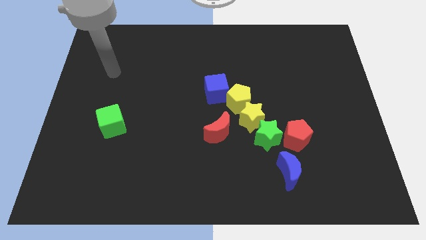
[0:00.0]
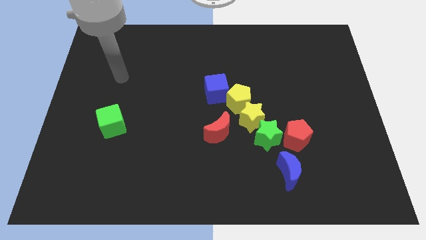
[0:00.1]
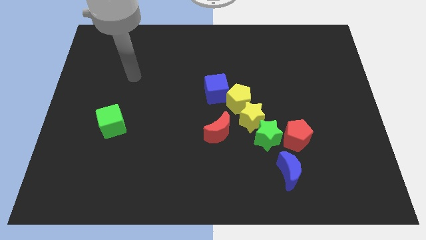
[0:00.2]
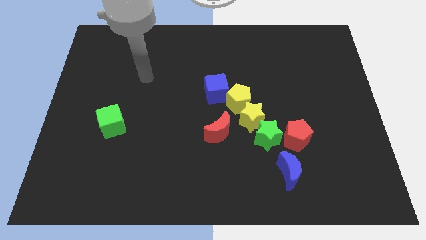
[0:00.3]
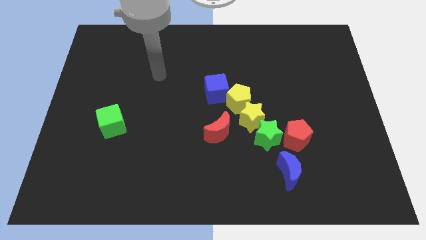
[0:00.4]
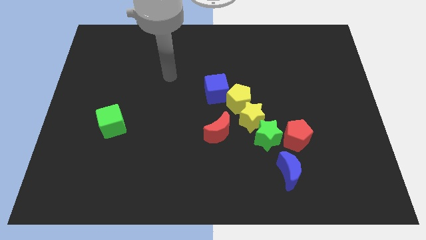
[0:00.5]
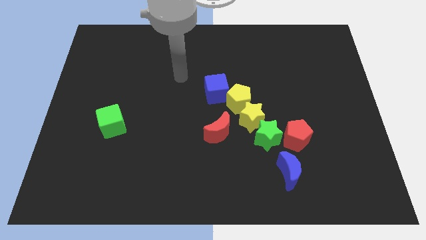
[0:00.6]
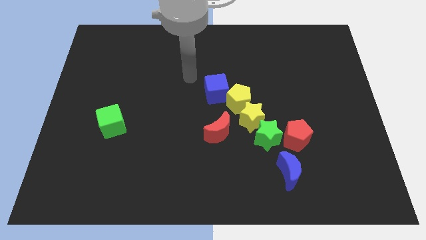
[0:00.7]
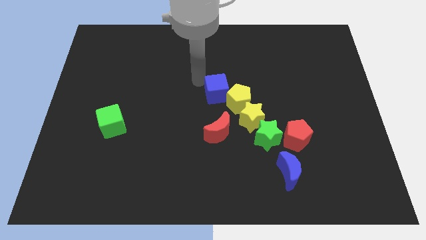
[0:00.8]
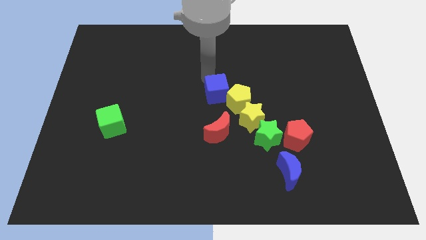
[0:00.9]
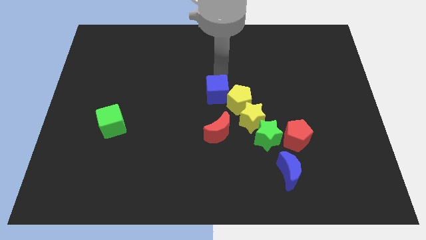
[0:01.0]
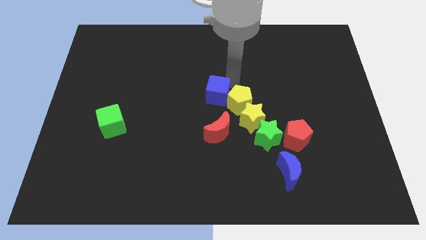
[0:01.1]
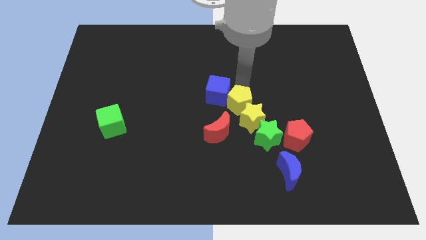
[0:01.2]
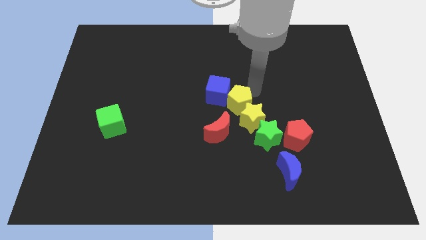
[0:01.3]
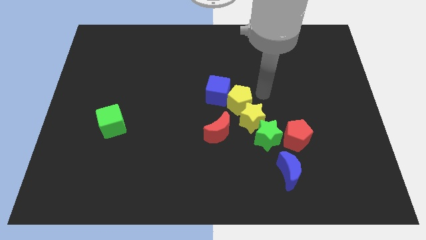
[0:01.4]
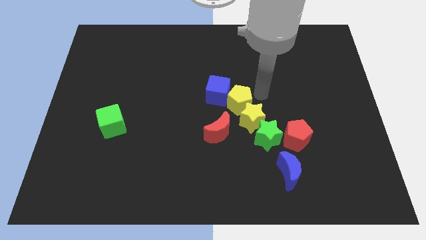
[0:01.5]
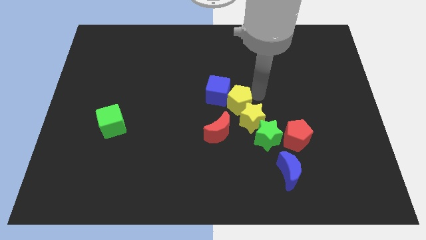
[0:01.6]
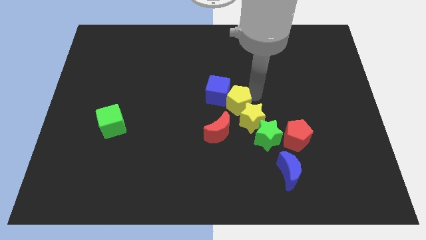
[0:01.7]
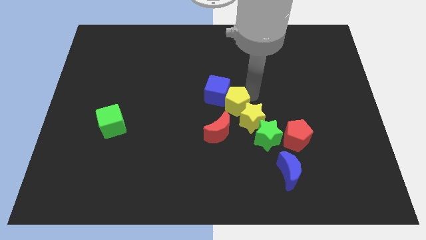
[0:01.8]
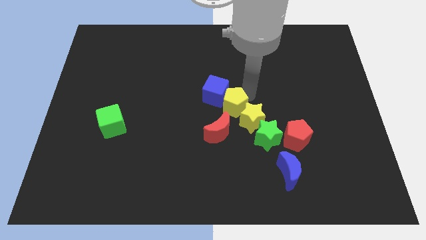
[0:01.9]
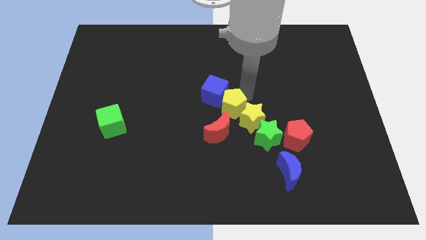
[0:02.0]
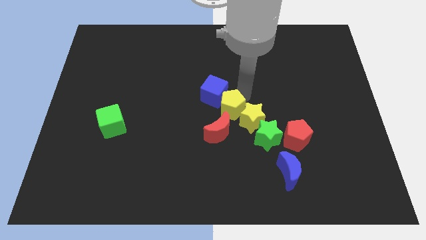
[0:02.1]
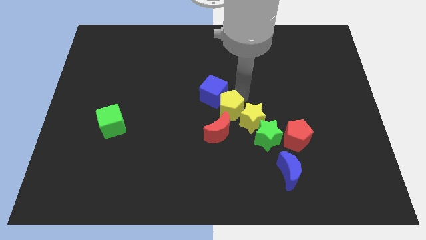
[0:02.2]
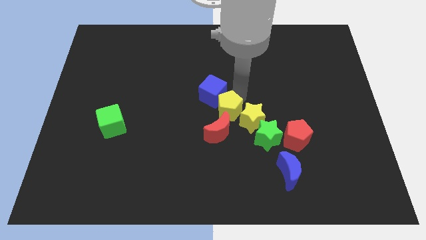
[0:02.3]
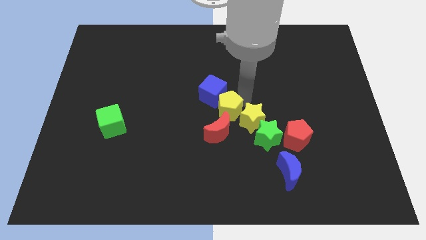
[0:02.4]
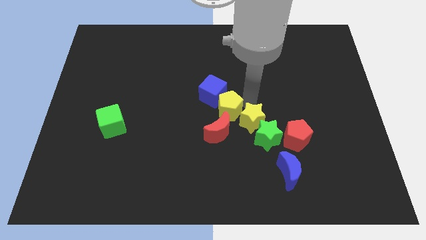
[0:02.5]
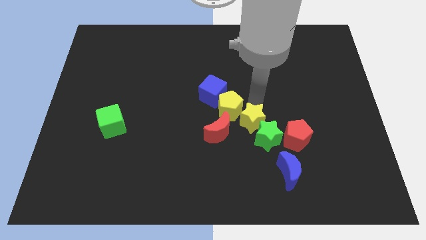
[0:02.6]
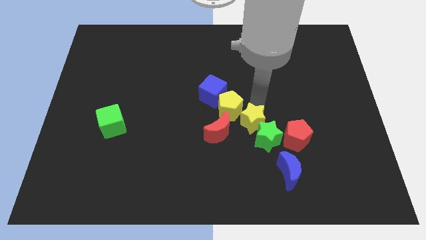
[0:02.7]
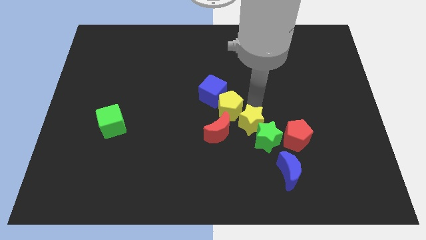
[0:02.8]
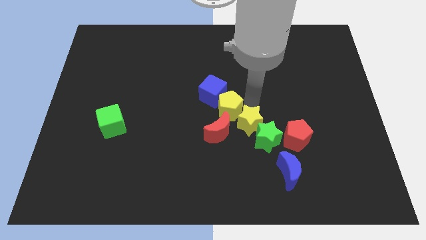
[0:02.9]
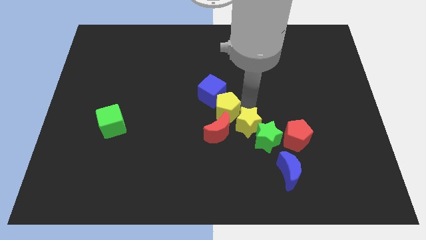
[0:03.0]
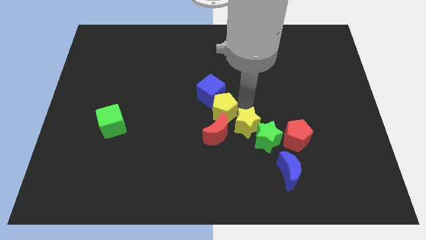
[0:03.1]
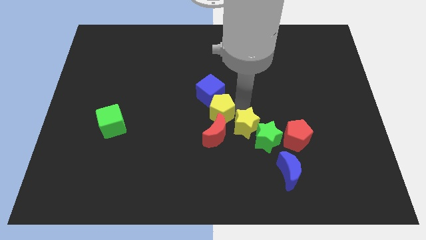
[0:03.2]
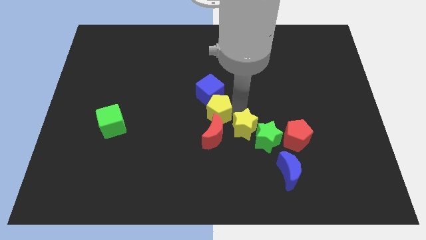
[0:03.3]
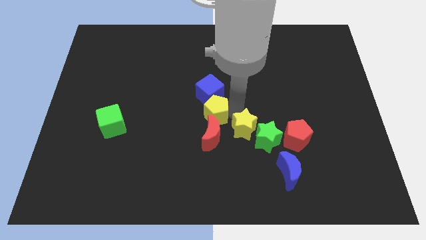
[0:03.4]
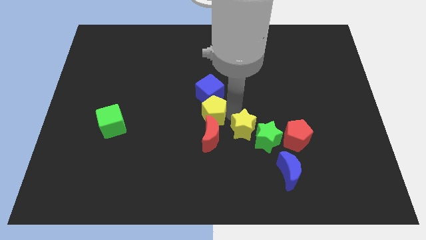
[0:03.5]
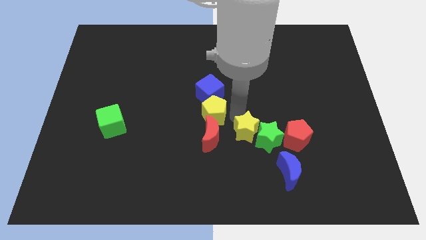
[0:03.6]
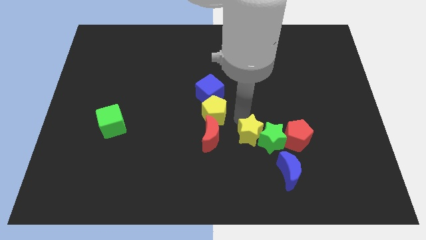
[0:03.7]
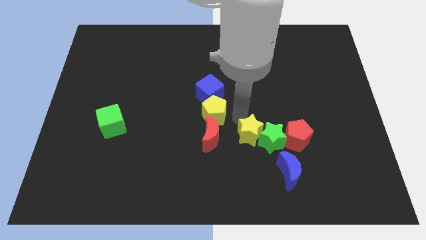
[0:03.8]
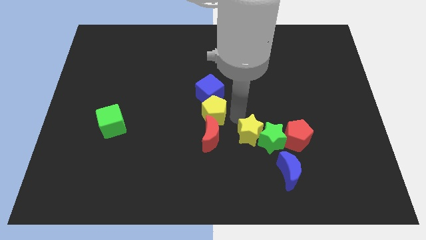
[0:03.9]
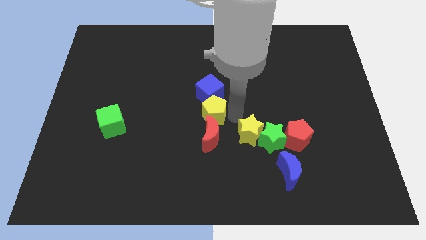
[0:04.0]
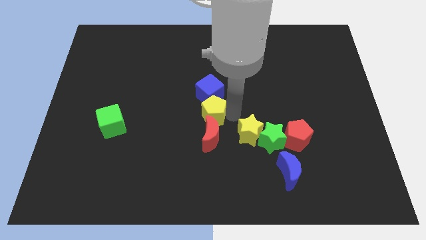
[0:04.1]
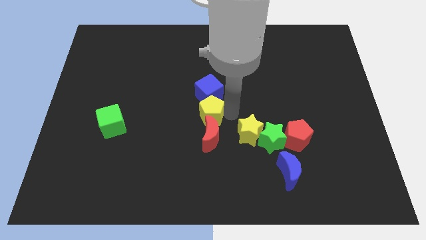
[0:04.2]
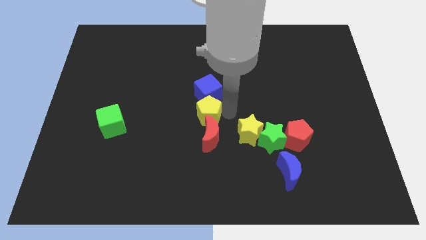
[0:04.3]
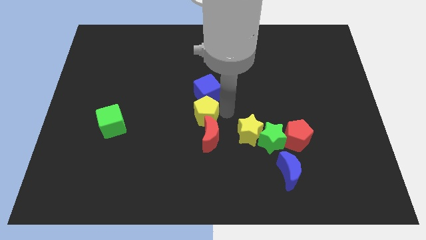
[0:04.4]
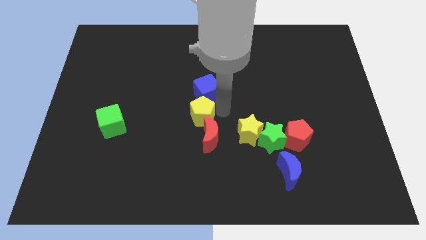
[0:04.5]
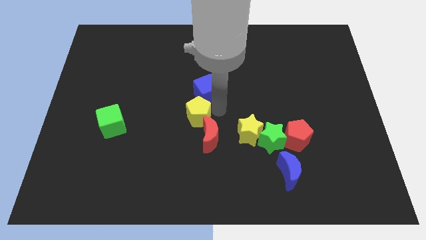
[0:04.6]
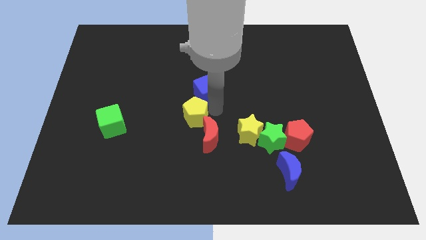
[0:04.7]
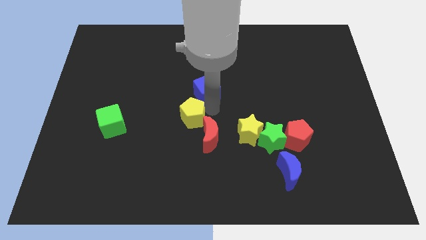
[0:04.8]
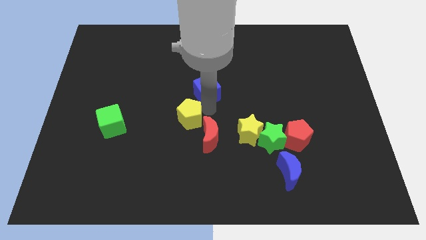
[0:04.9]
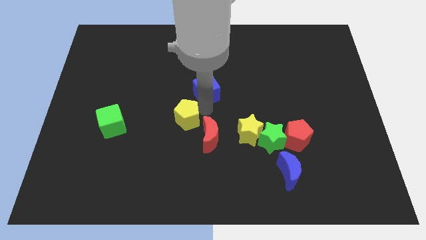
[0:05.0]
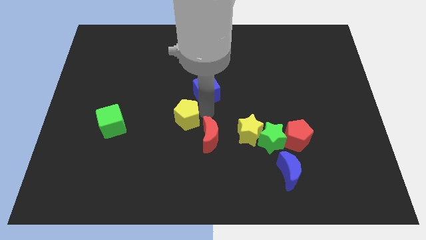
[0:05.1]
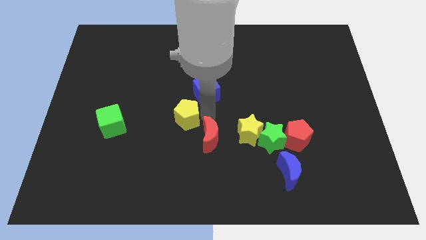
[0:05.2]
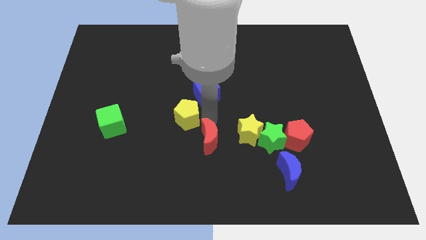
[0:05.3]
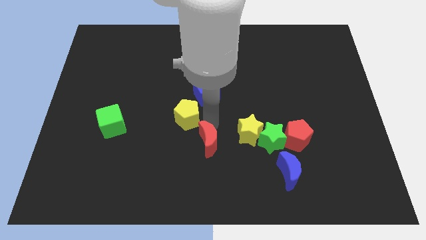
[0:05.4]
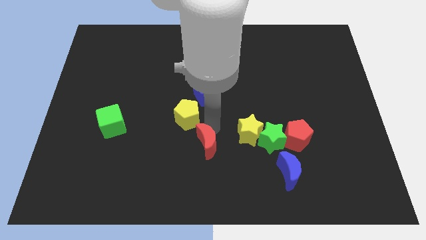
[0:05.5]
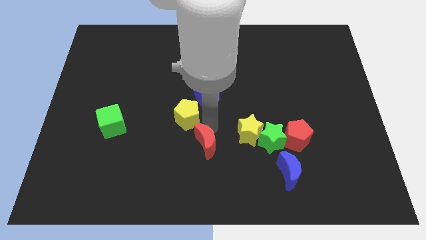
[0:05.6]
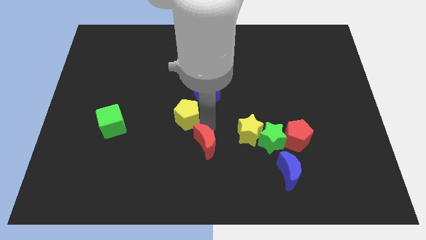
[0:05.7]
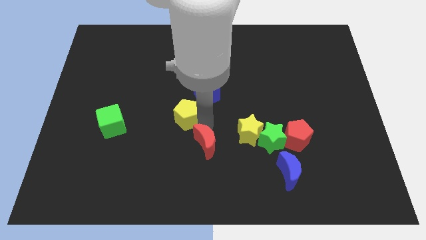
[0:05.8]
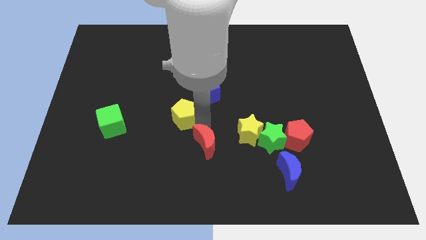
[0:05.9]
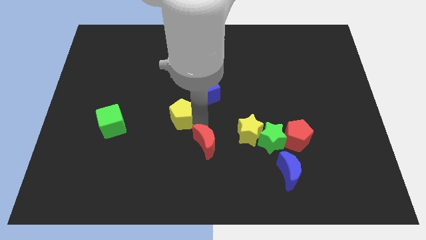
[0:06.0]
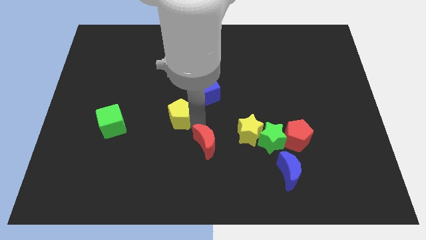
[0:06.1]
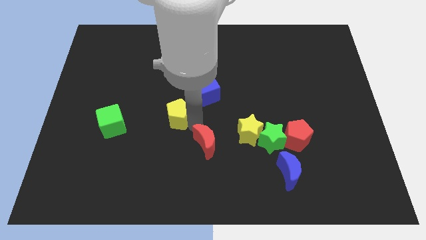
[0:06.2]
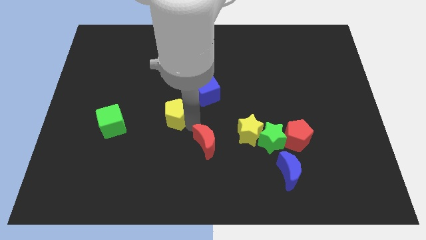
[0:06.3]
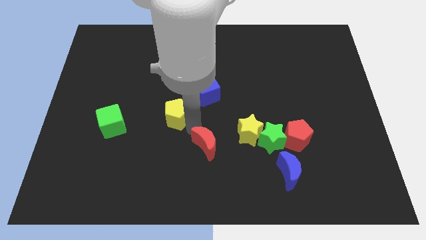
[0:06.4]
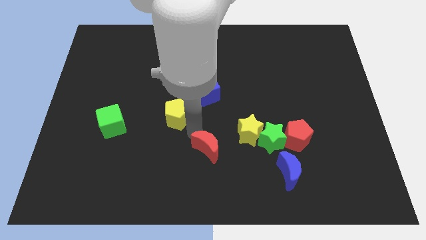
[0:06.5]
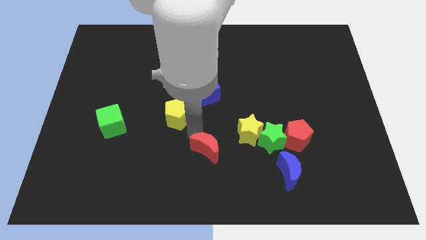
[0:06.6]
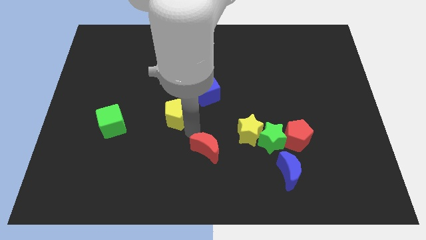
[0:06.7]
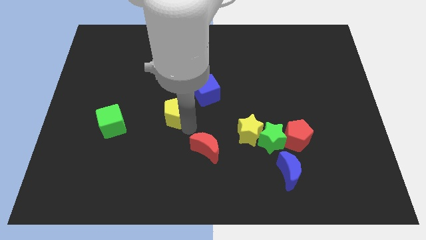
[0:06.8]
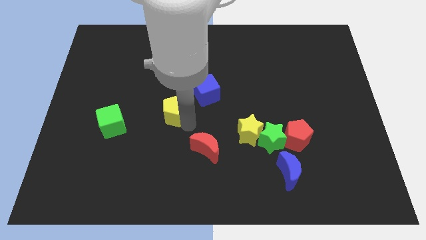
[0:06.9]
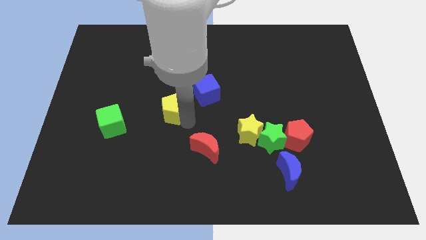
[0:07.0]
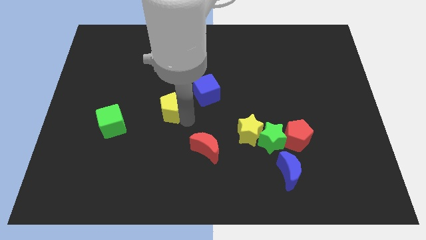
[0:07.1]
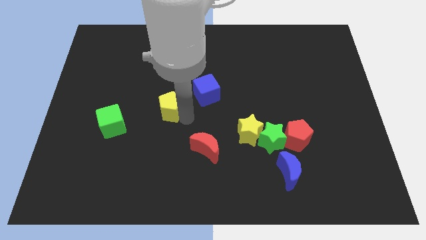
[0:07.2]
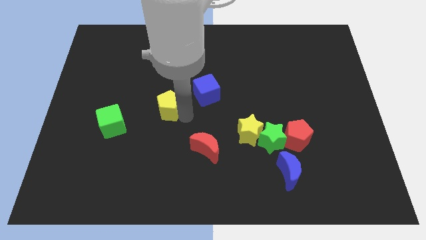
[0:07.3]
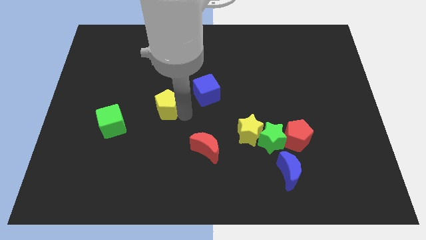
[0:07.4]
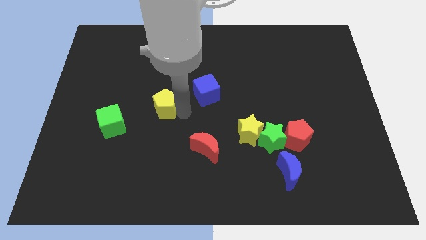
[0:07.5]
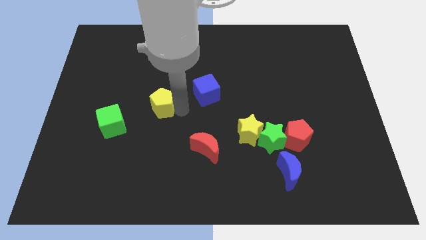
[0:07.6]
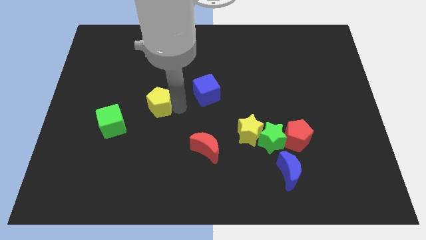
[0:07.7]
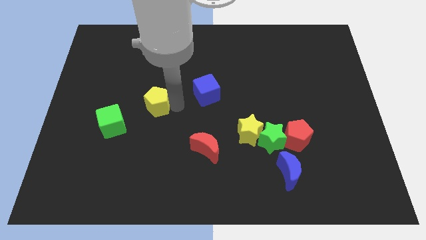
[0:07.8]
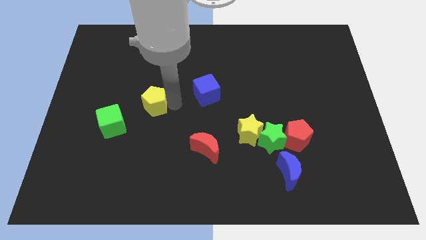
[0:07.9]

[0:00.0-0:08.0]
slide the yellow pentagon to the left

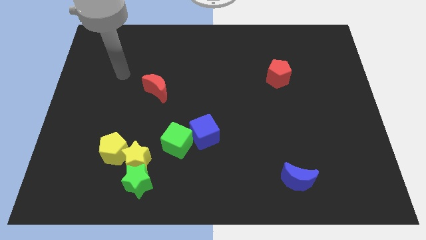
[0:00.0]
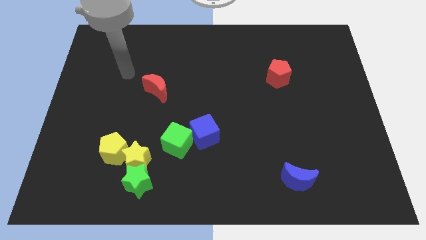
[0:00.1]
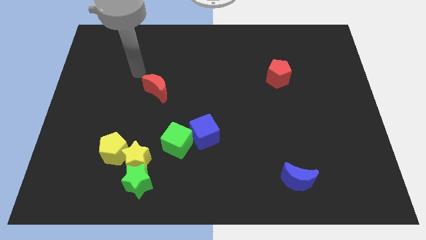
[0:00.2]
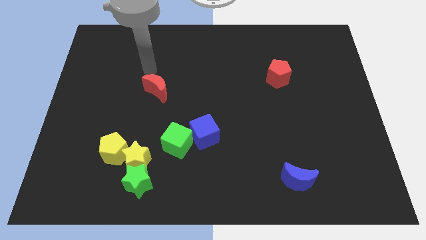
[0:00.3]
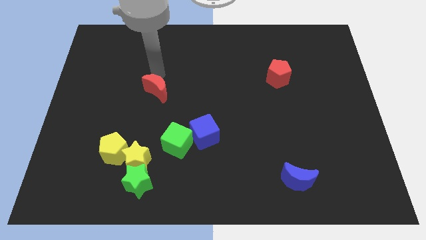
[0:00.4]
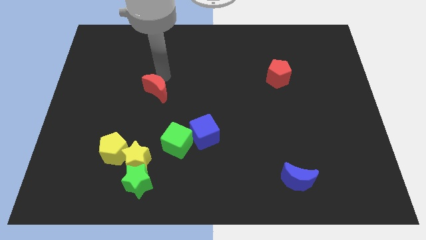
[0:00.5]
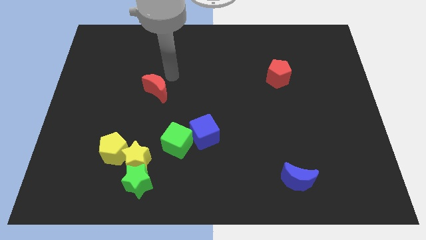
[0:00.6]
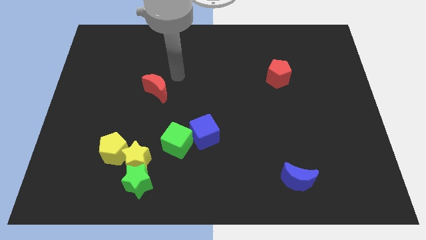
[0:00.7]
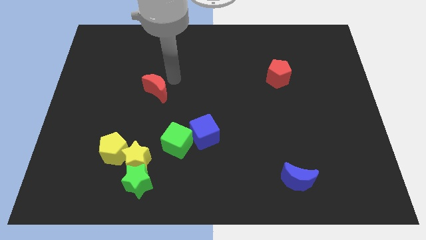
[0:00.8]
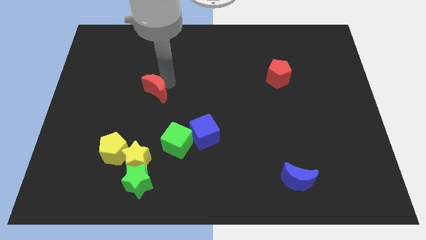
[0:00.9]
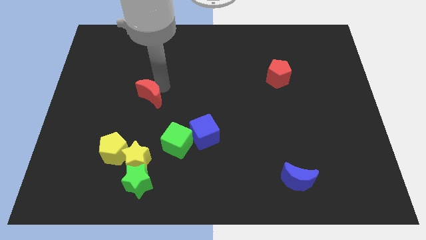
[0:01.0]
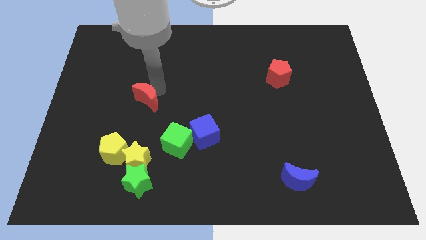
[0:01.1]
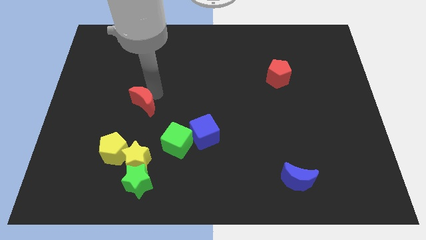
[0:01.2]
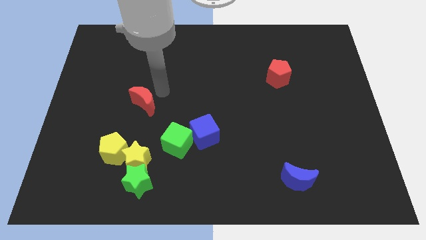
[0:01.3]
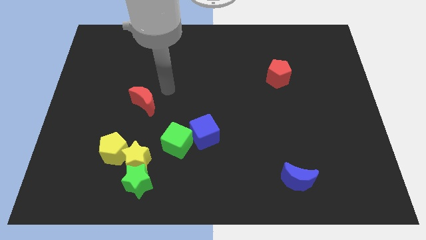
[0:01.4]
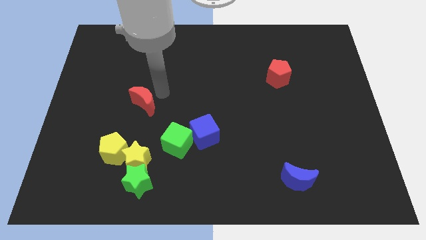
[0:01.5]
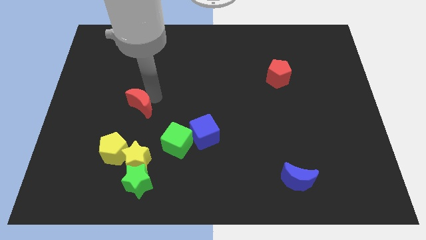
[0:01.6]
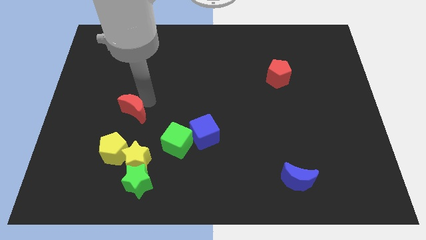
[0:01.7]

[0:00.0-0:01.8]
slide the red moon a bit down and to the left diagonally
